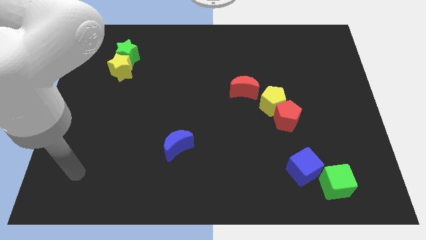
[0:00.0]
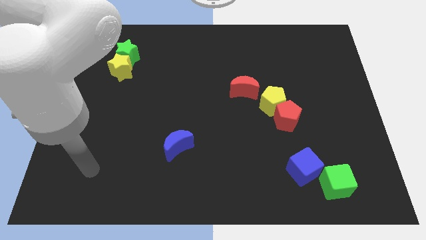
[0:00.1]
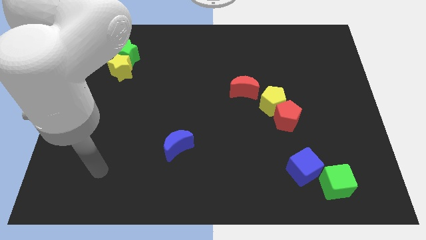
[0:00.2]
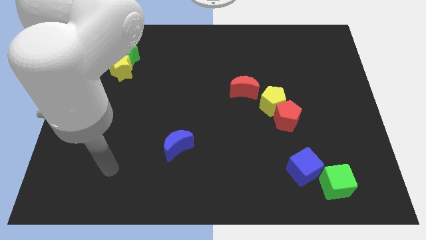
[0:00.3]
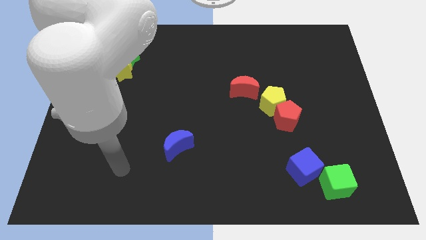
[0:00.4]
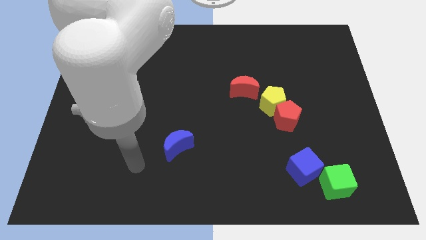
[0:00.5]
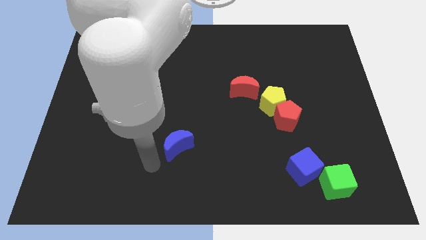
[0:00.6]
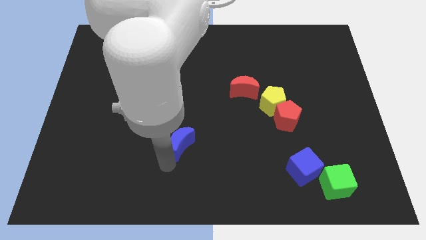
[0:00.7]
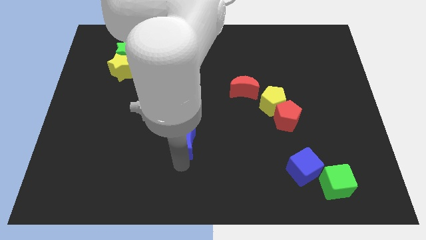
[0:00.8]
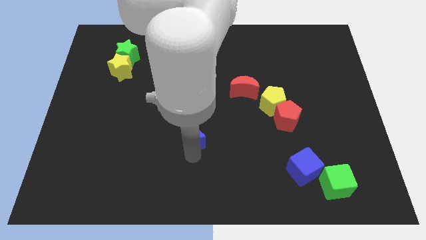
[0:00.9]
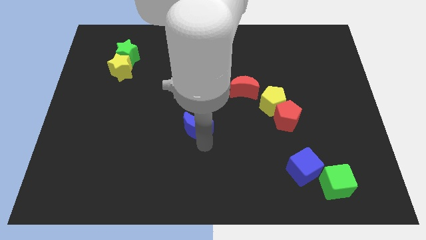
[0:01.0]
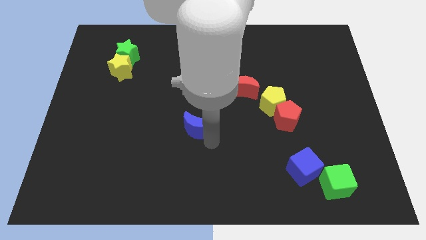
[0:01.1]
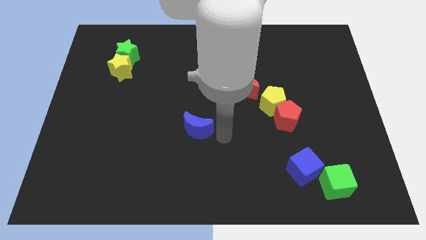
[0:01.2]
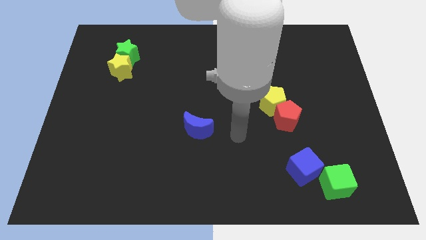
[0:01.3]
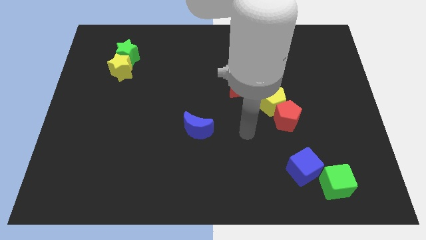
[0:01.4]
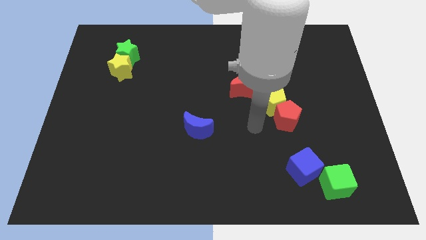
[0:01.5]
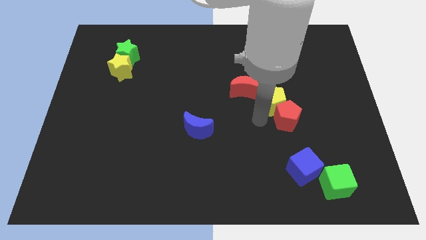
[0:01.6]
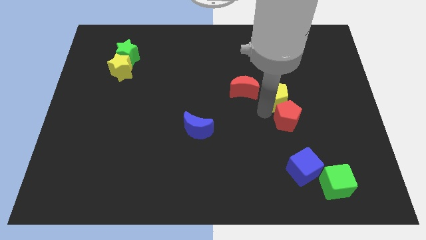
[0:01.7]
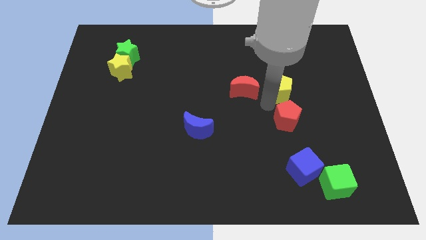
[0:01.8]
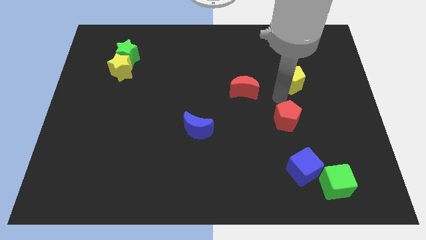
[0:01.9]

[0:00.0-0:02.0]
move the red pentagon away from the yellow pentagon

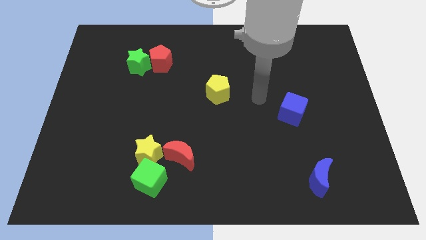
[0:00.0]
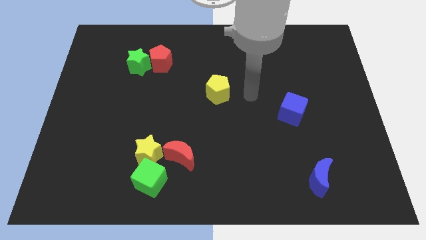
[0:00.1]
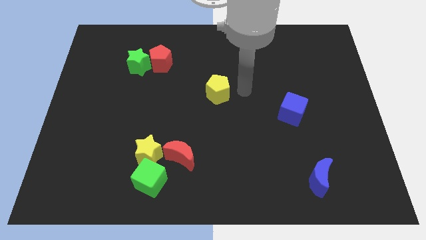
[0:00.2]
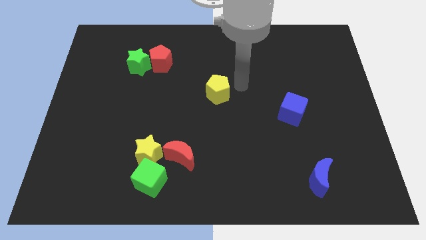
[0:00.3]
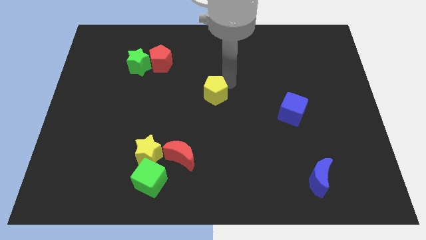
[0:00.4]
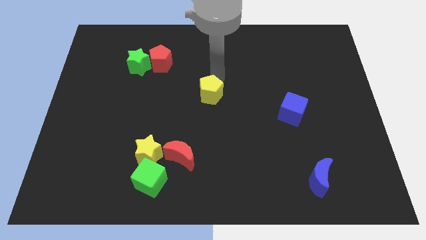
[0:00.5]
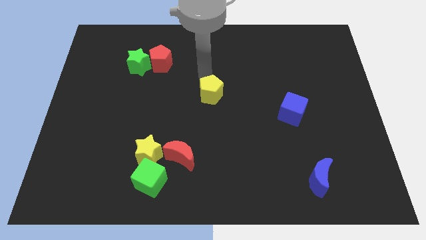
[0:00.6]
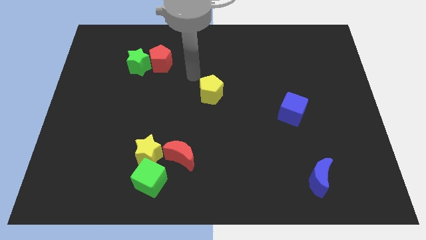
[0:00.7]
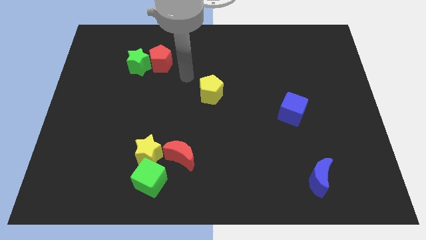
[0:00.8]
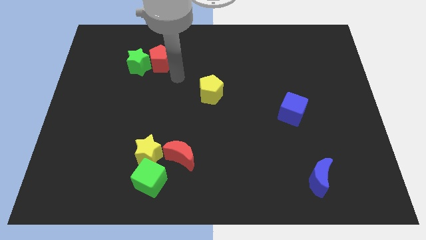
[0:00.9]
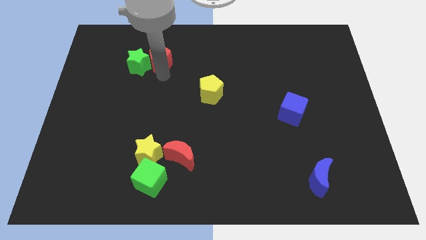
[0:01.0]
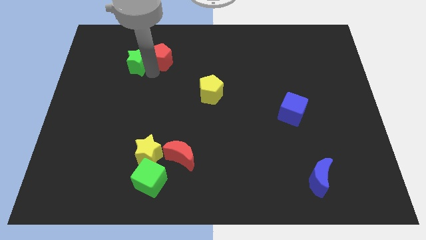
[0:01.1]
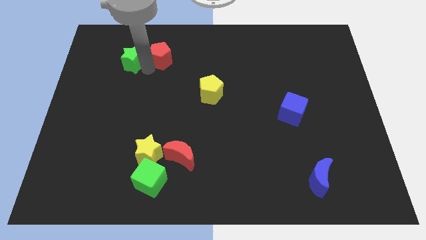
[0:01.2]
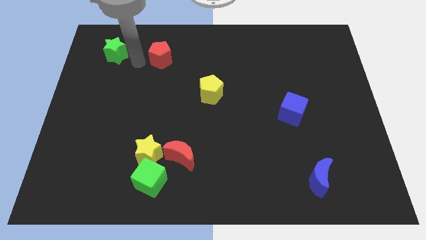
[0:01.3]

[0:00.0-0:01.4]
separate the red pentagon from the green star

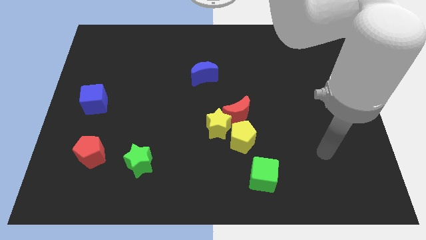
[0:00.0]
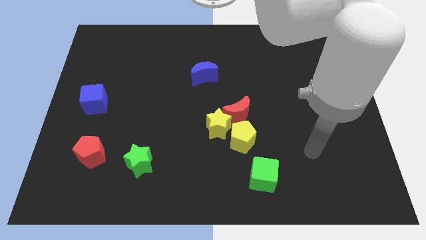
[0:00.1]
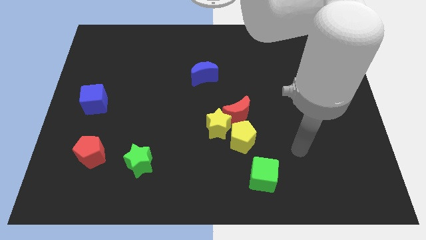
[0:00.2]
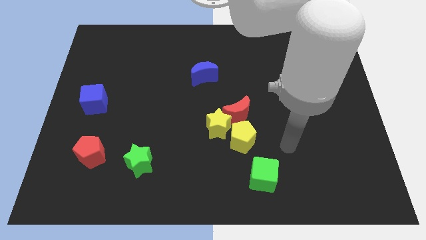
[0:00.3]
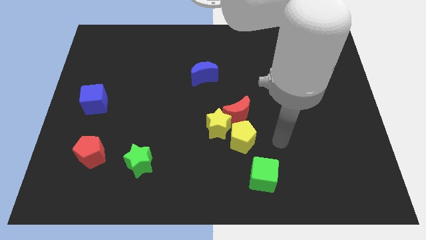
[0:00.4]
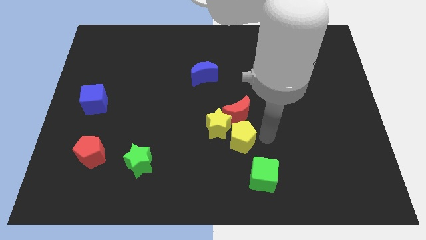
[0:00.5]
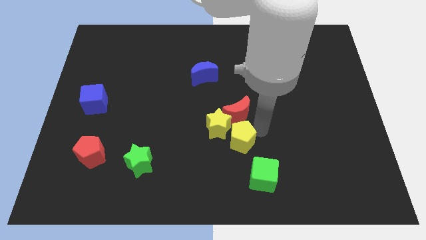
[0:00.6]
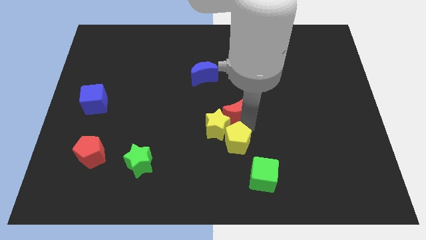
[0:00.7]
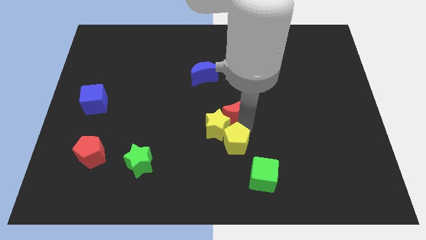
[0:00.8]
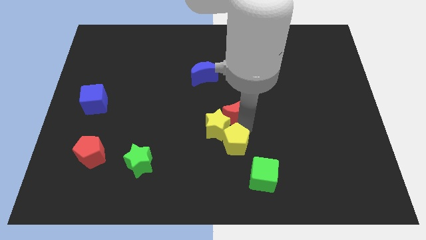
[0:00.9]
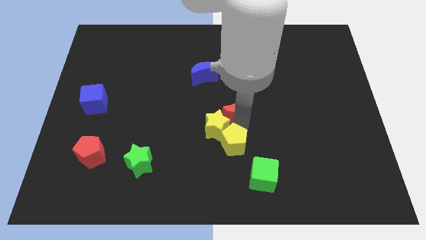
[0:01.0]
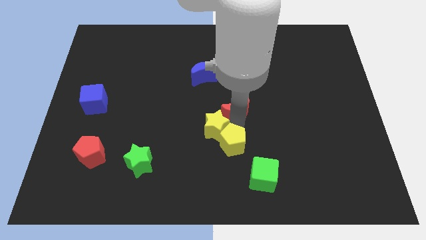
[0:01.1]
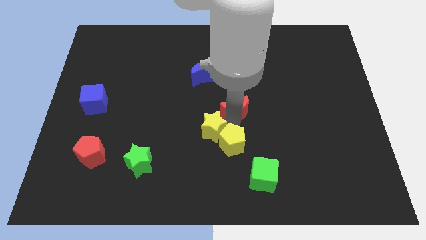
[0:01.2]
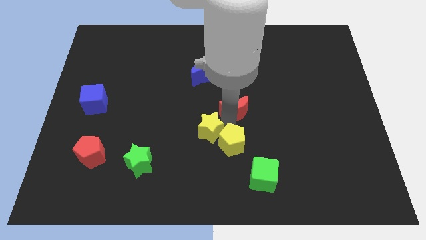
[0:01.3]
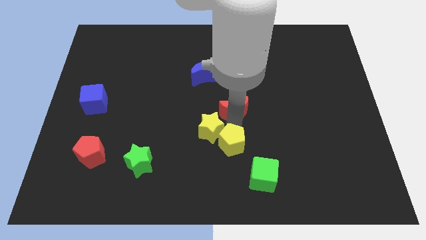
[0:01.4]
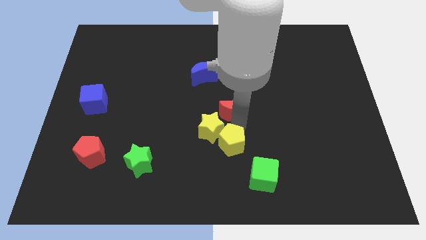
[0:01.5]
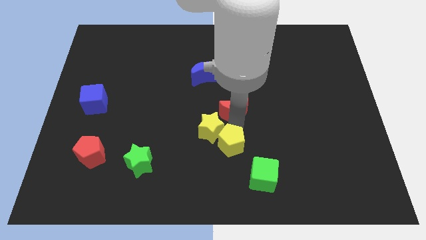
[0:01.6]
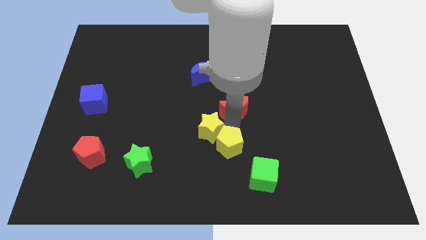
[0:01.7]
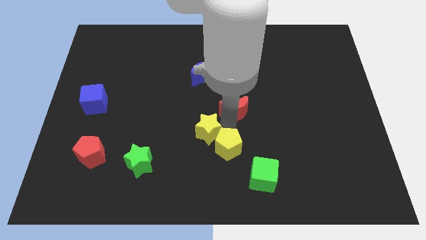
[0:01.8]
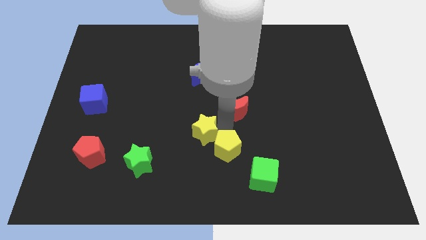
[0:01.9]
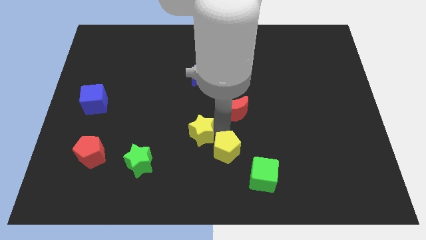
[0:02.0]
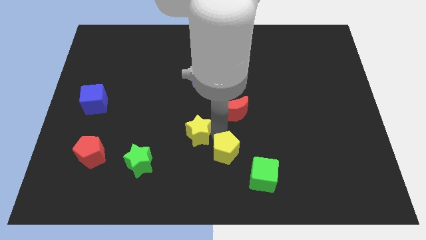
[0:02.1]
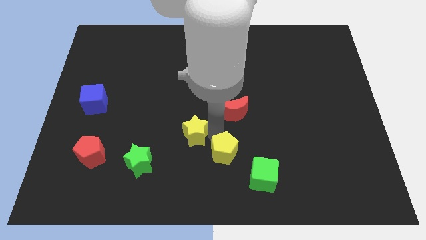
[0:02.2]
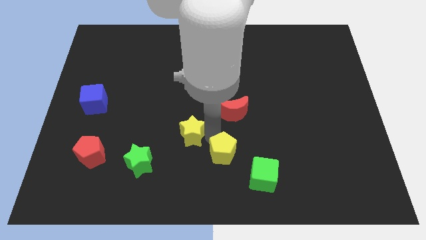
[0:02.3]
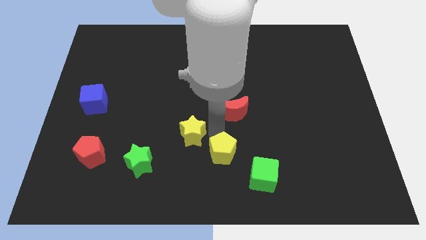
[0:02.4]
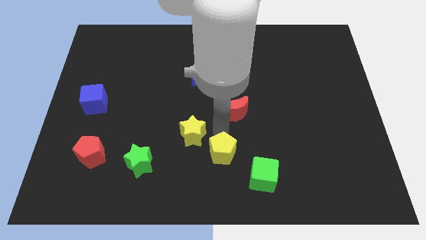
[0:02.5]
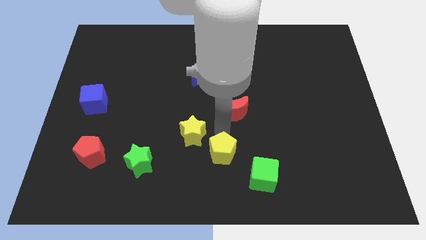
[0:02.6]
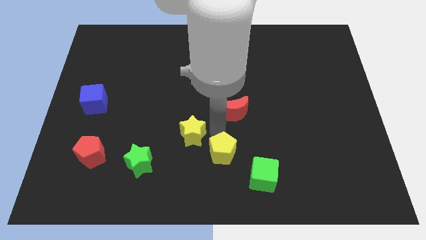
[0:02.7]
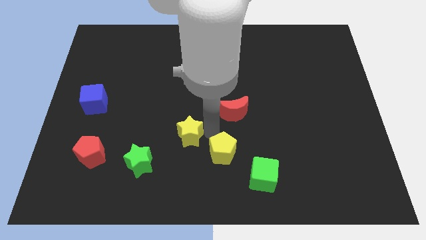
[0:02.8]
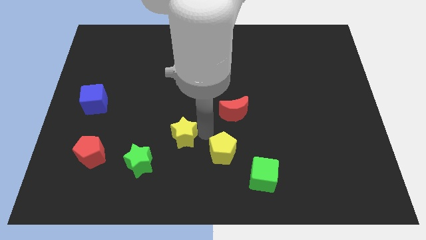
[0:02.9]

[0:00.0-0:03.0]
pull the yellow star apart from the red moon and yellow pentagon

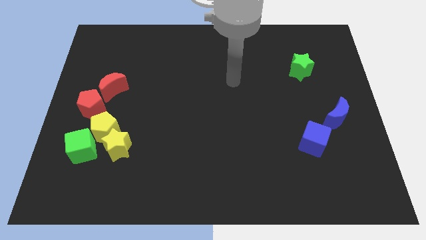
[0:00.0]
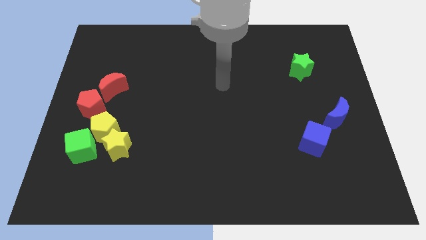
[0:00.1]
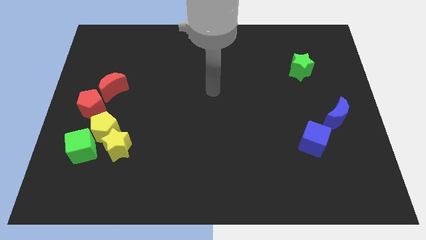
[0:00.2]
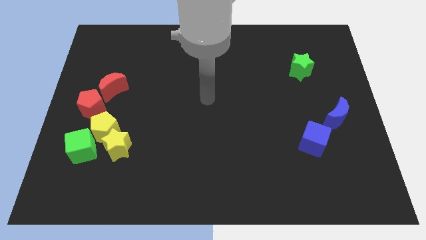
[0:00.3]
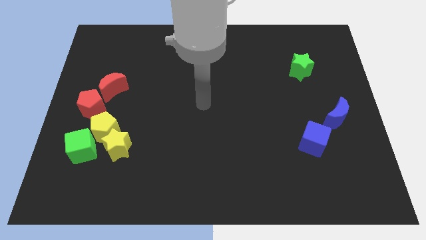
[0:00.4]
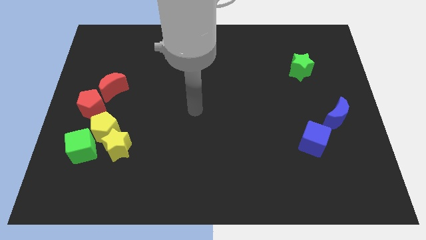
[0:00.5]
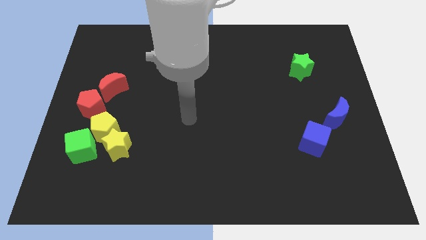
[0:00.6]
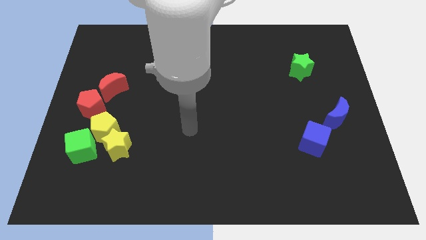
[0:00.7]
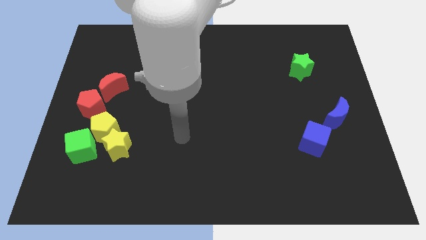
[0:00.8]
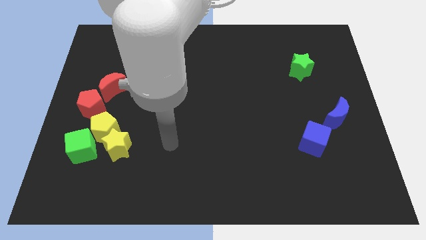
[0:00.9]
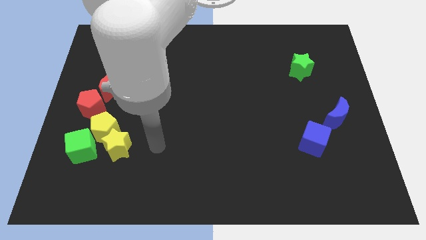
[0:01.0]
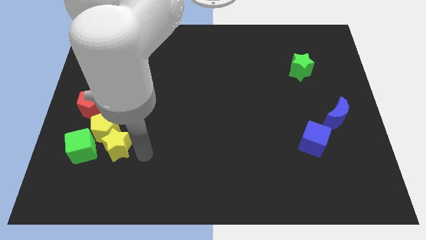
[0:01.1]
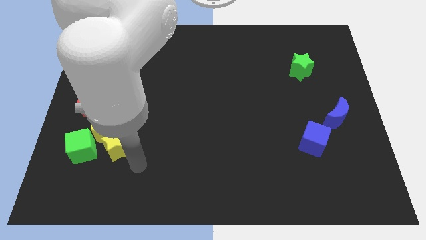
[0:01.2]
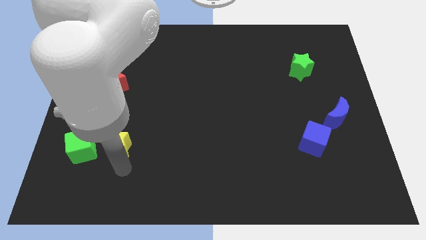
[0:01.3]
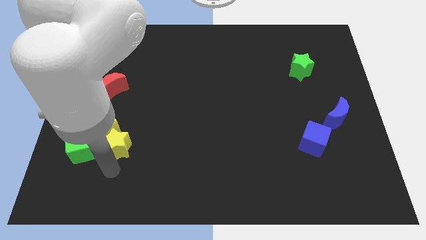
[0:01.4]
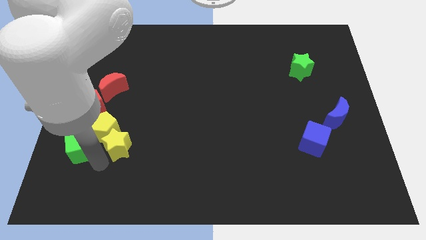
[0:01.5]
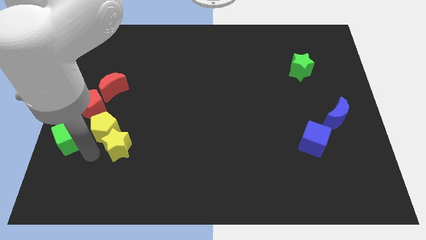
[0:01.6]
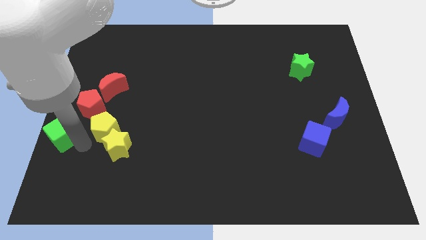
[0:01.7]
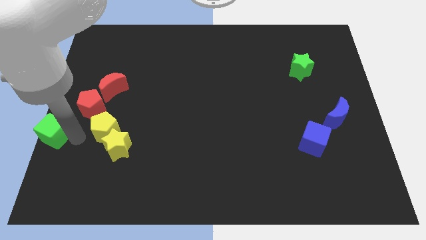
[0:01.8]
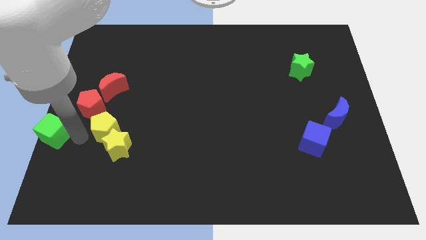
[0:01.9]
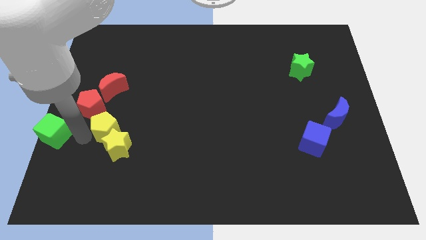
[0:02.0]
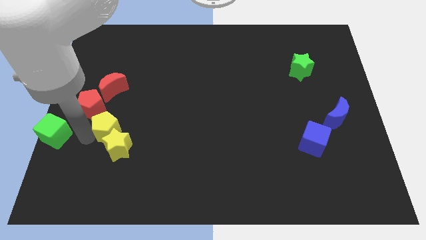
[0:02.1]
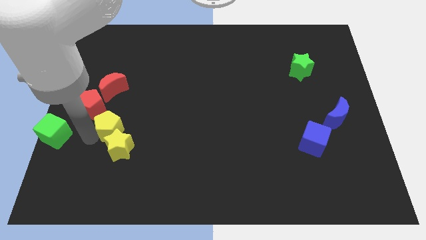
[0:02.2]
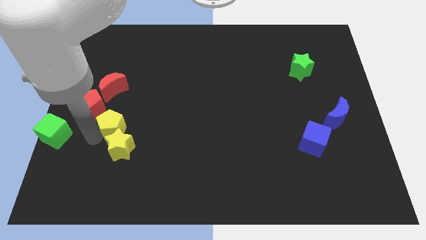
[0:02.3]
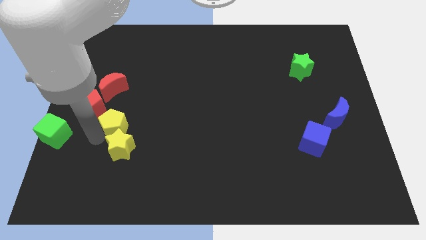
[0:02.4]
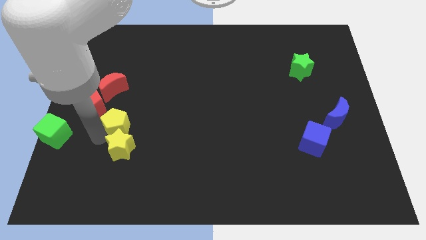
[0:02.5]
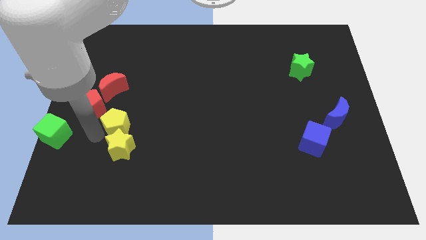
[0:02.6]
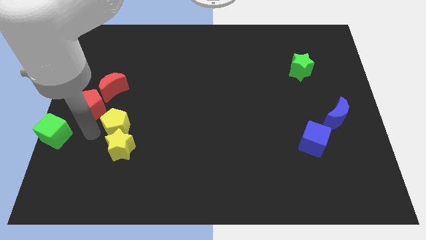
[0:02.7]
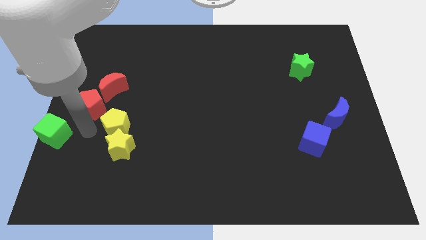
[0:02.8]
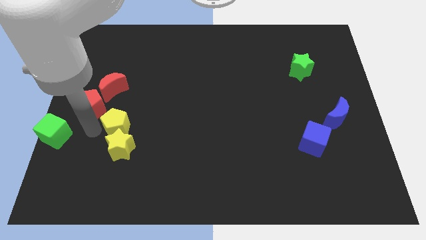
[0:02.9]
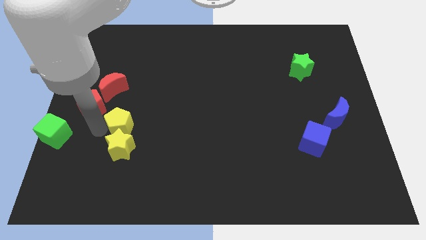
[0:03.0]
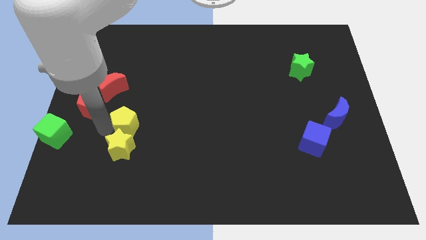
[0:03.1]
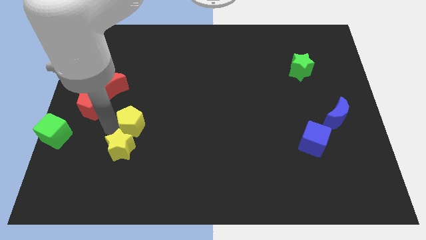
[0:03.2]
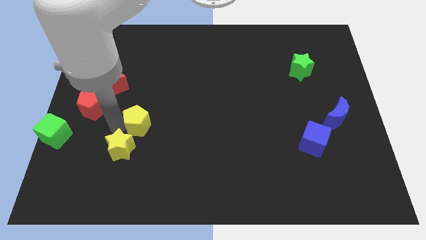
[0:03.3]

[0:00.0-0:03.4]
separate the yellow pentagon from the yellow star, green cube, and red pentagon
